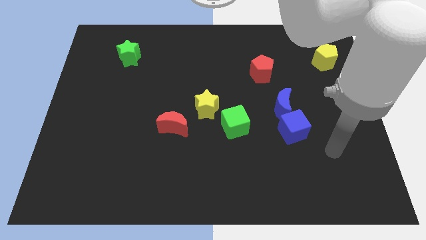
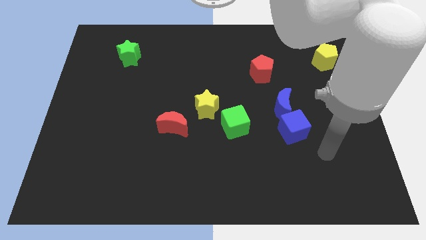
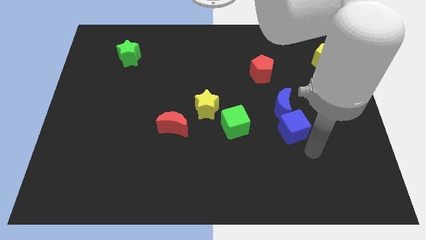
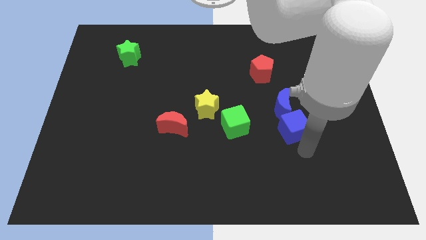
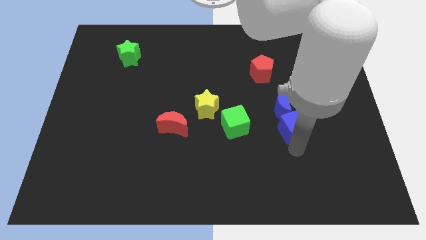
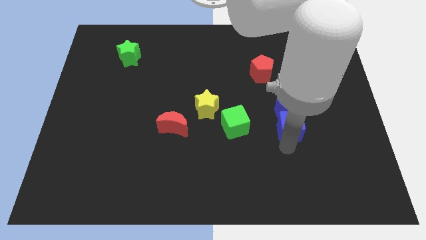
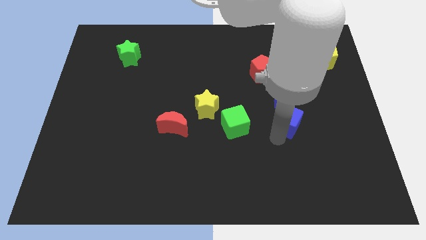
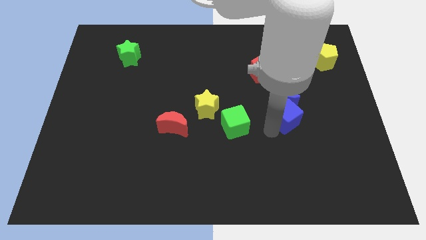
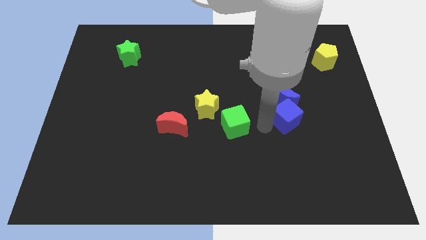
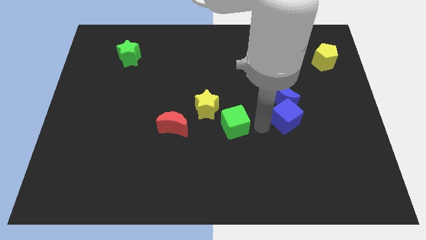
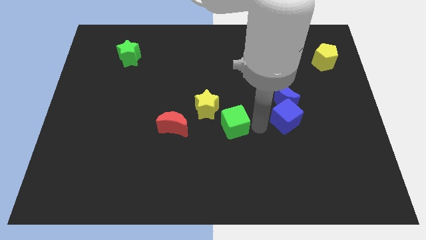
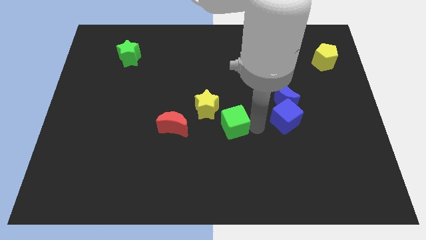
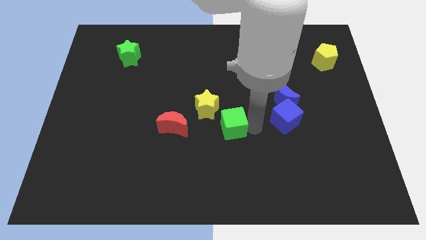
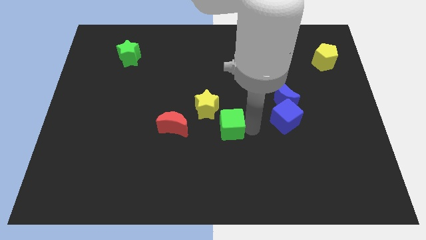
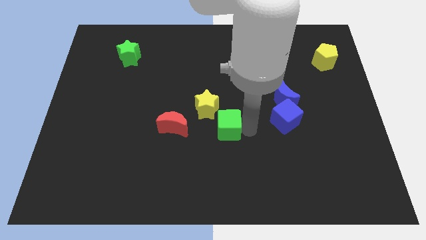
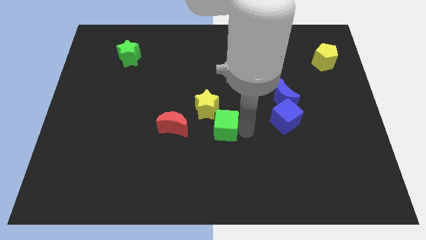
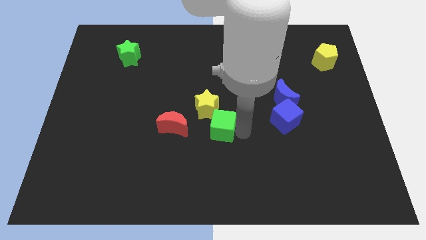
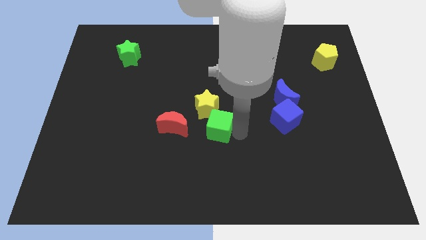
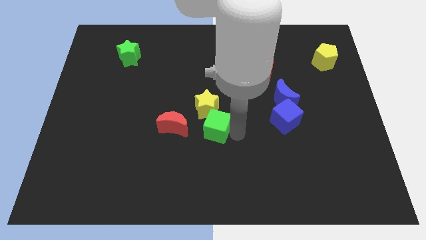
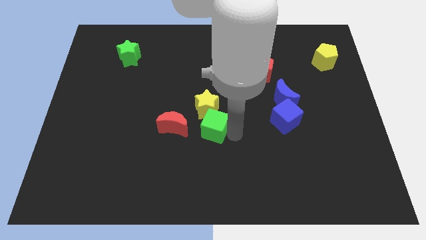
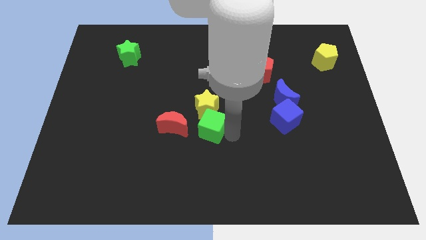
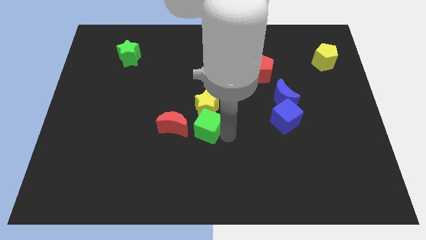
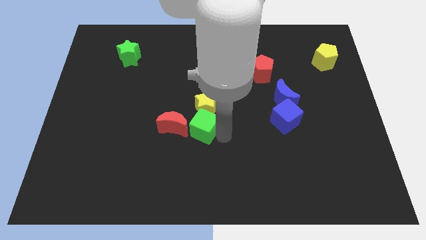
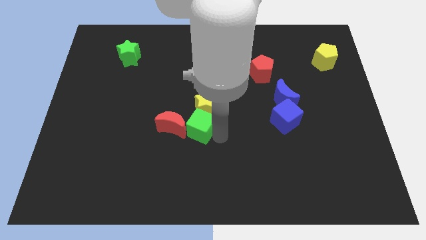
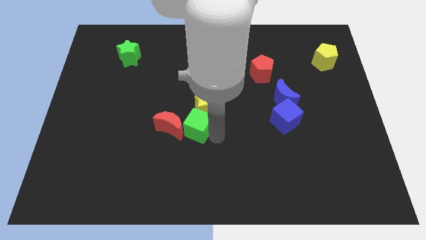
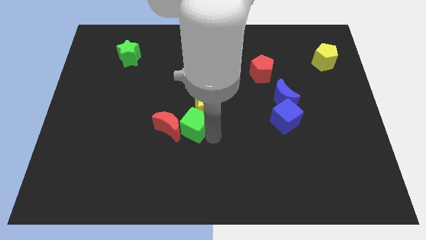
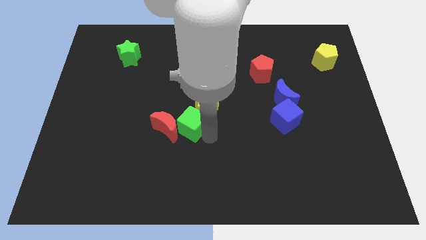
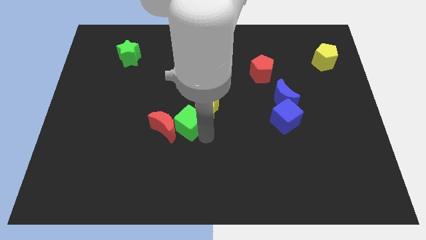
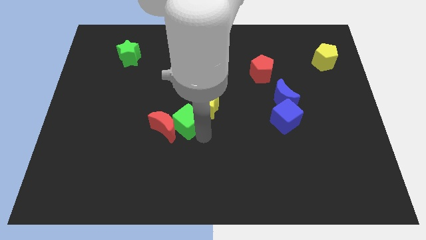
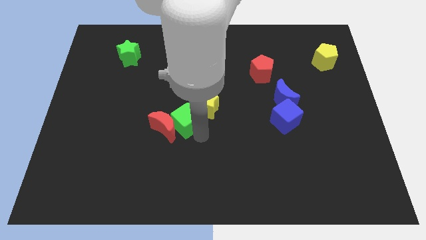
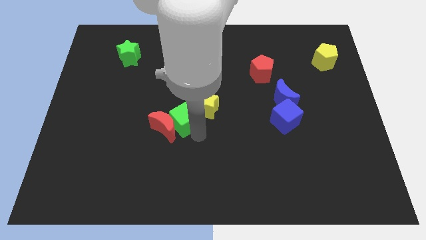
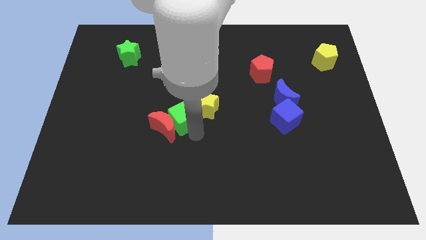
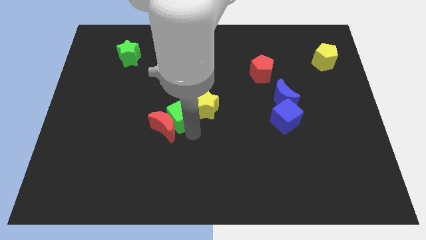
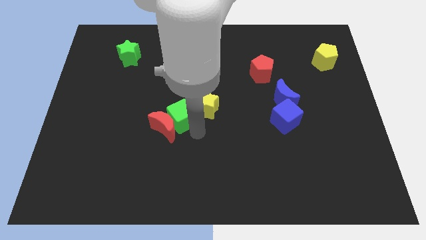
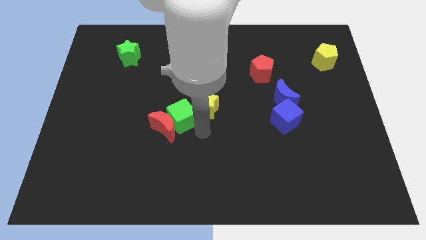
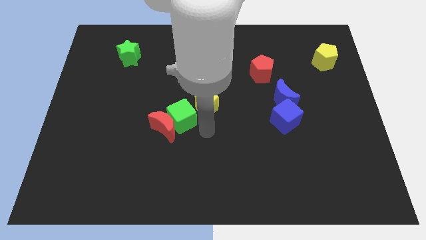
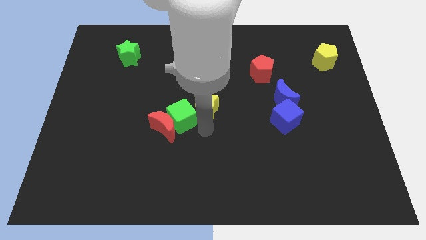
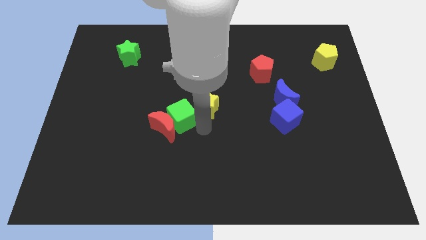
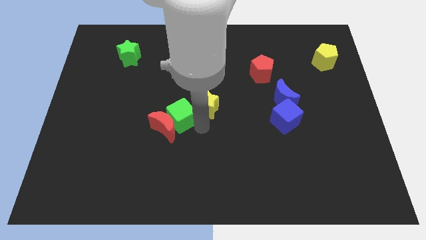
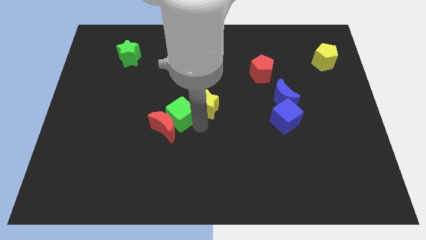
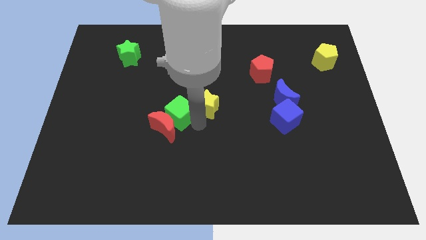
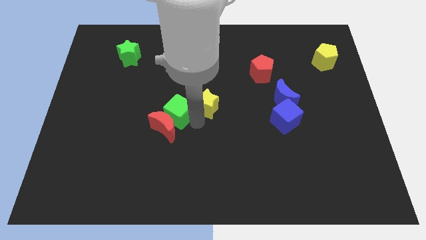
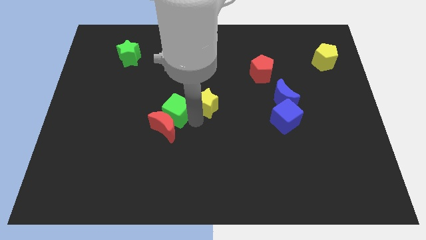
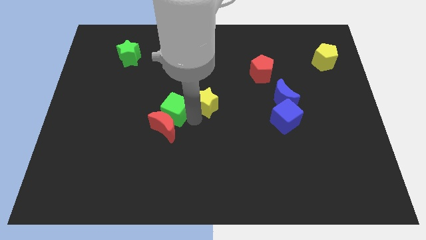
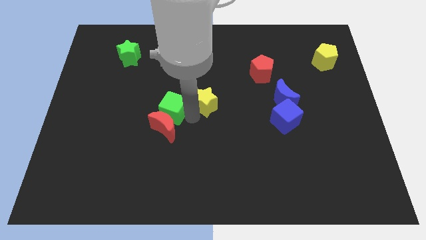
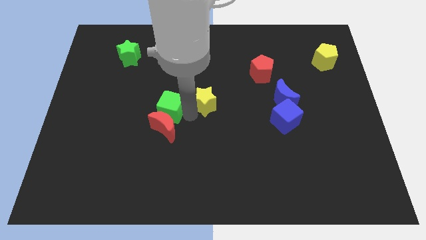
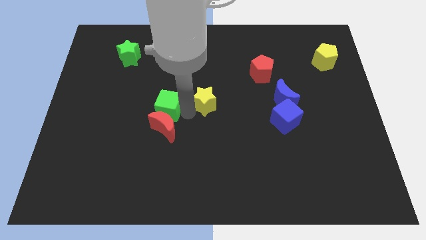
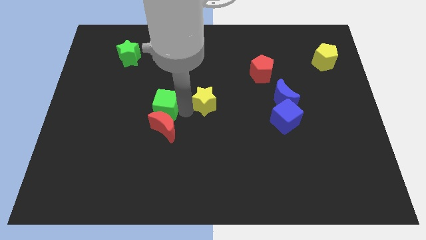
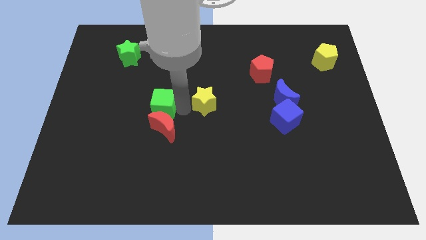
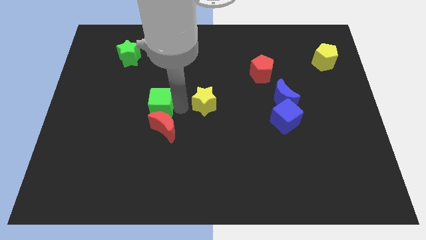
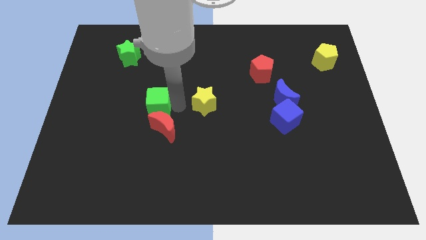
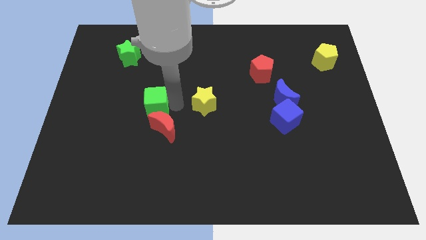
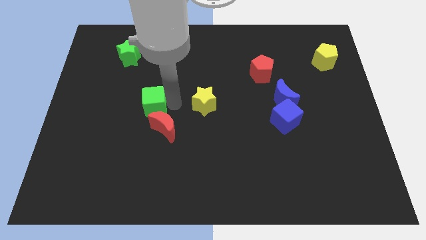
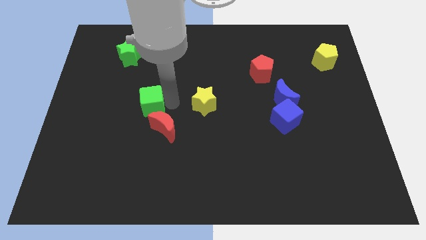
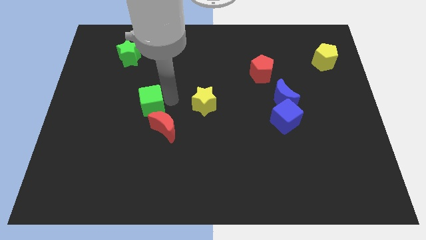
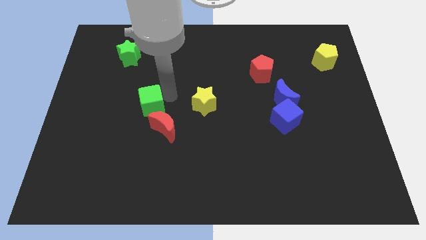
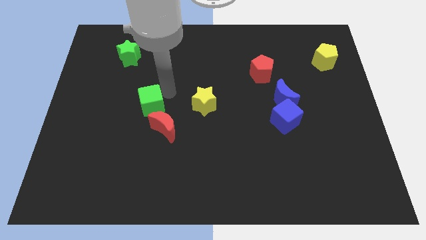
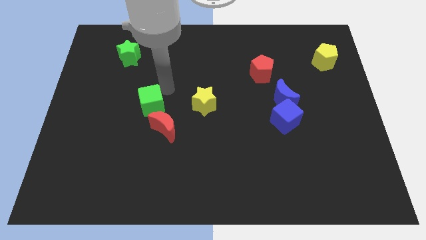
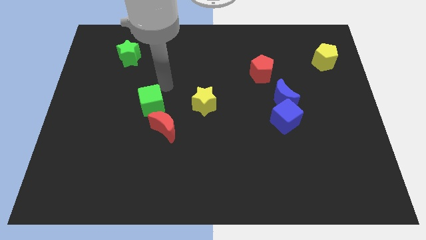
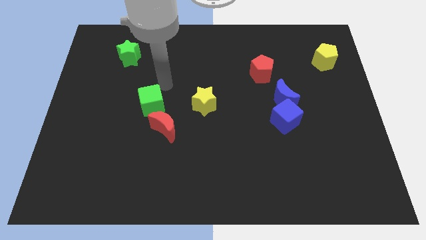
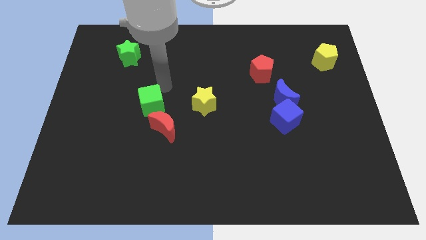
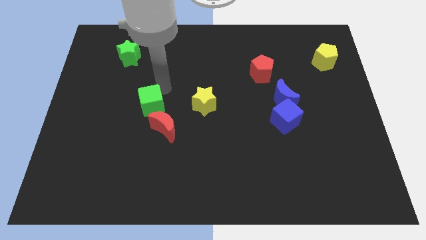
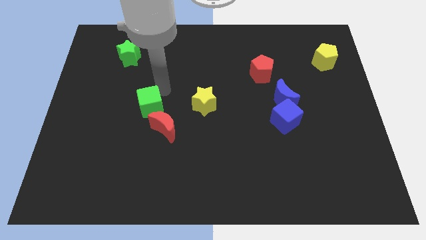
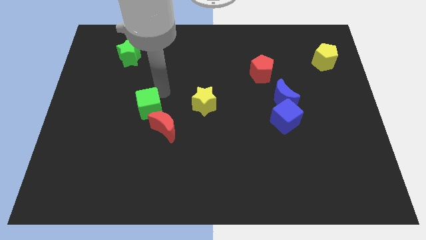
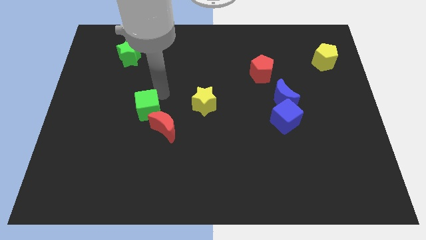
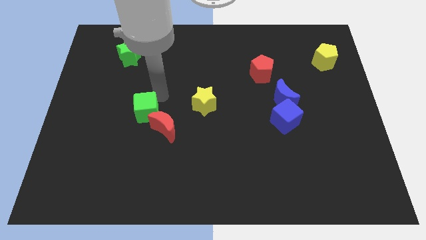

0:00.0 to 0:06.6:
move the green cube left

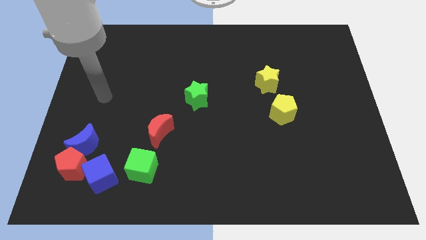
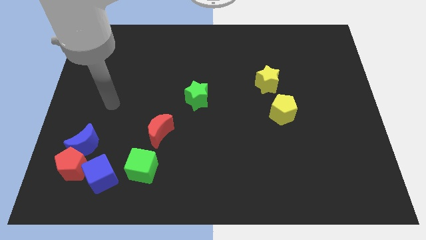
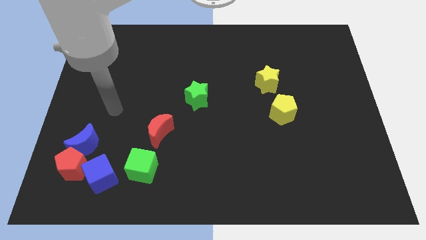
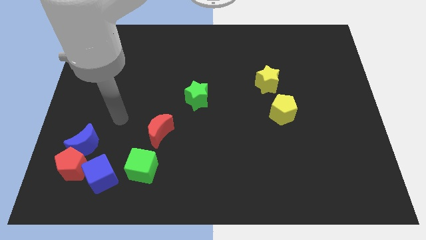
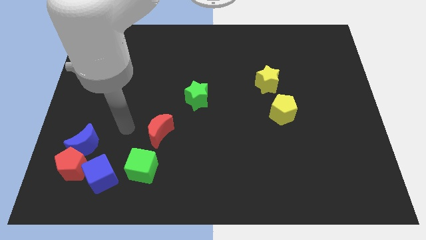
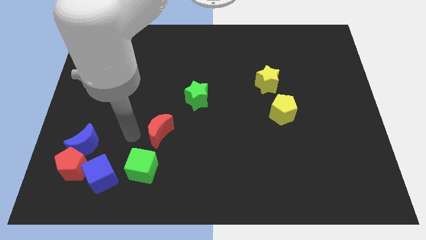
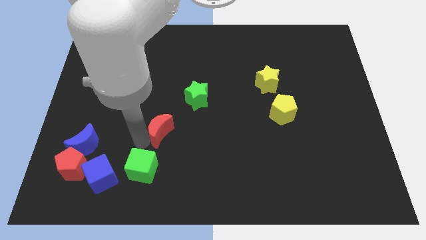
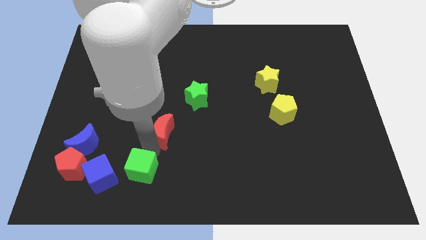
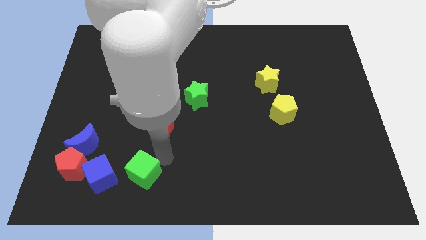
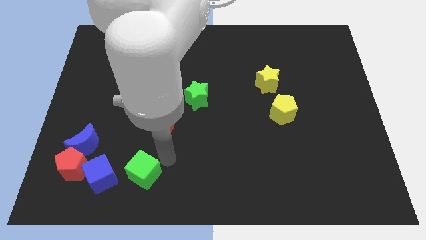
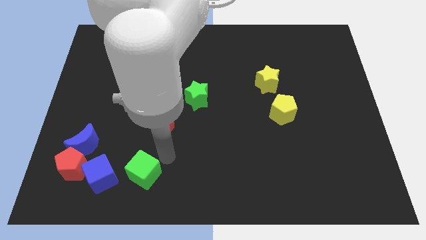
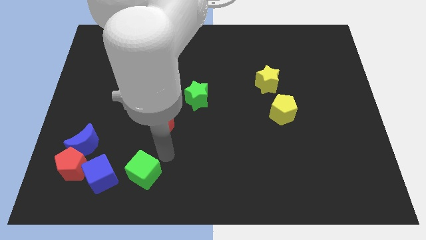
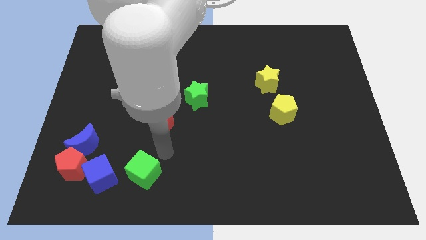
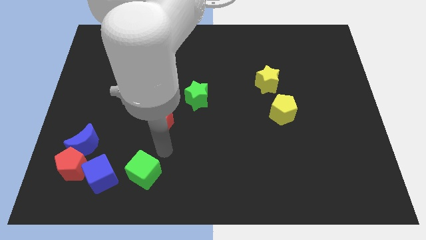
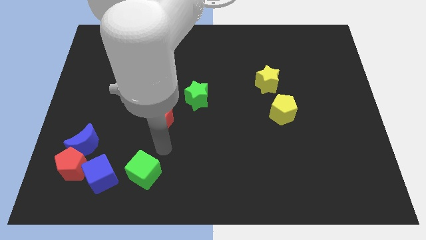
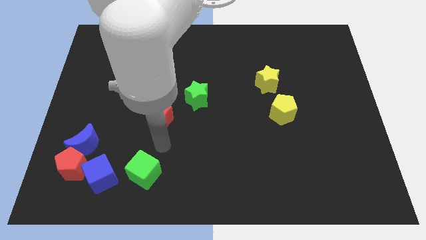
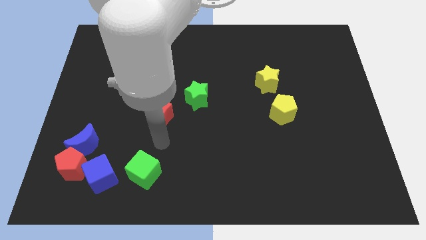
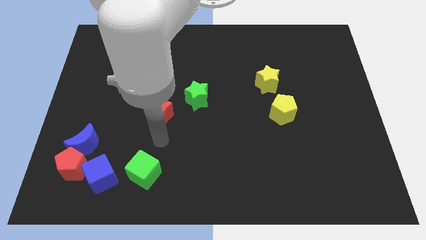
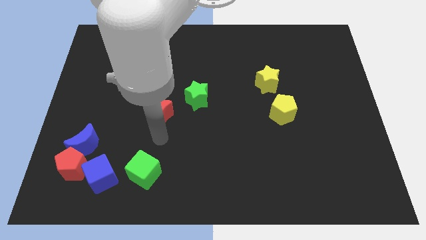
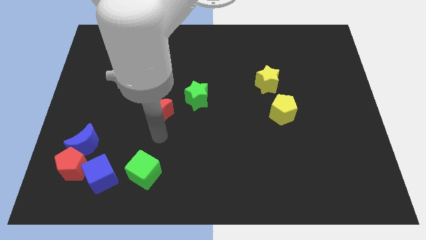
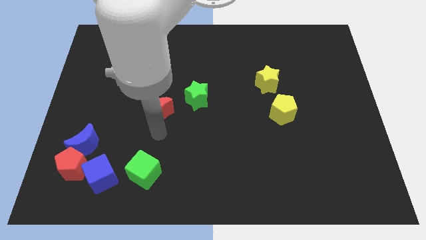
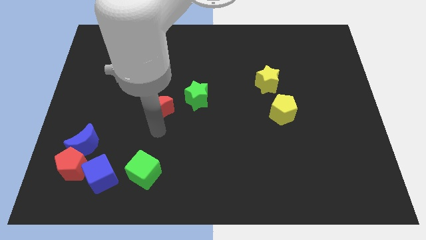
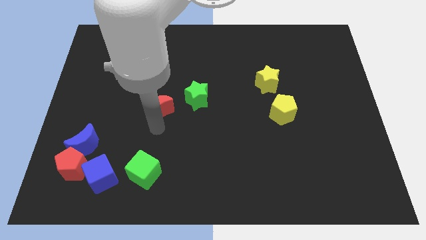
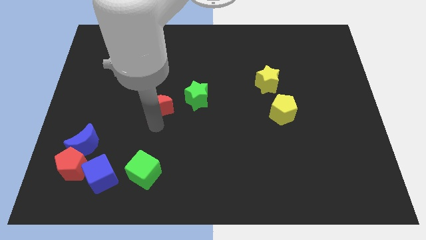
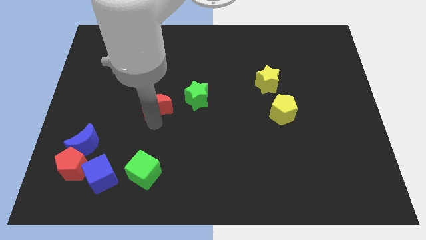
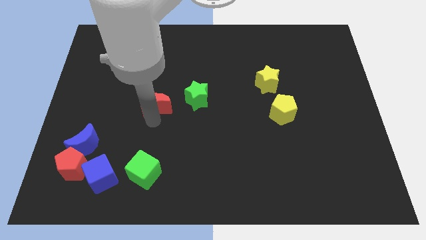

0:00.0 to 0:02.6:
slide the red moon up a bit
